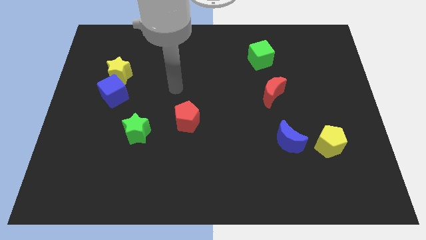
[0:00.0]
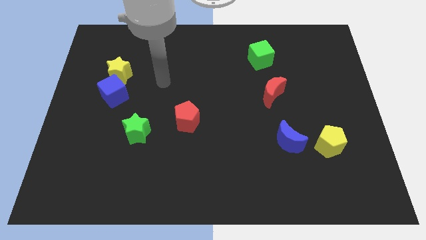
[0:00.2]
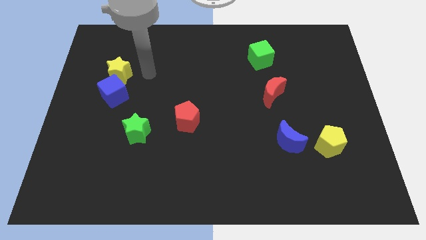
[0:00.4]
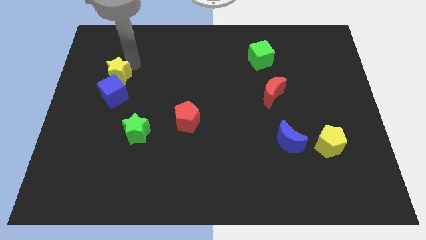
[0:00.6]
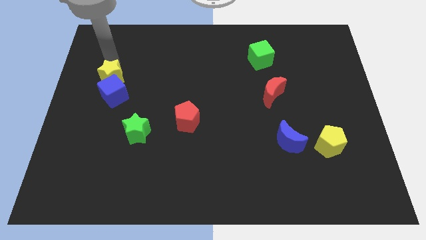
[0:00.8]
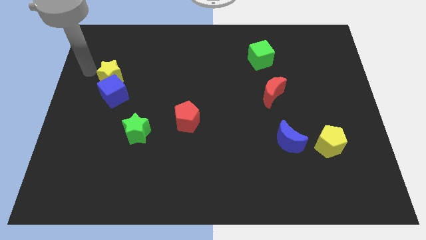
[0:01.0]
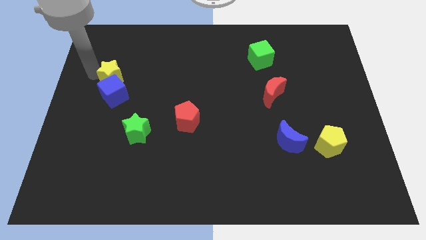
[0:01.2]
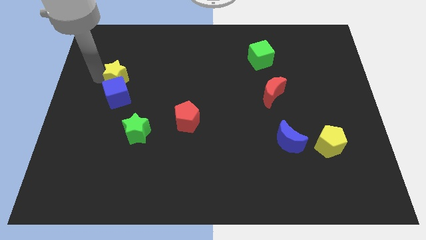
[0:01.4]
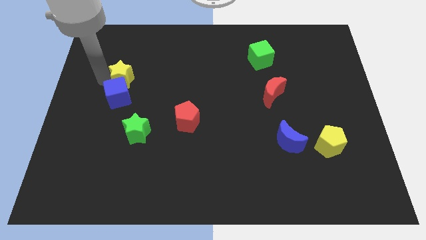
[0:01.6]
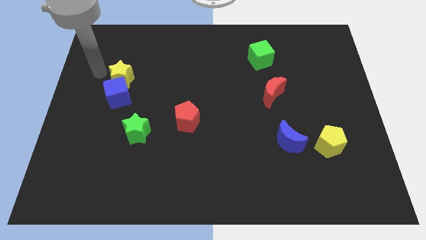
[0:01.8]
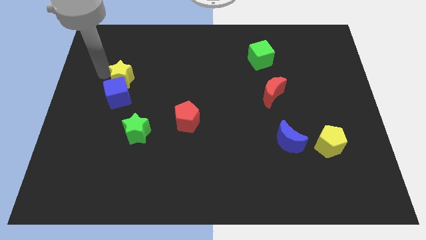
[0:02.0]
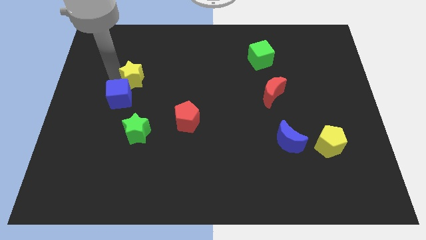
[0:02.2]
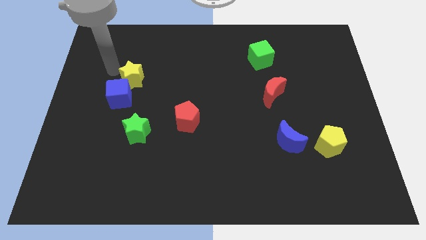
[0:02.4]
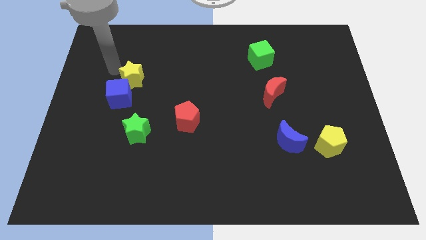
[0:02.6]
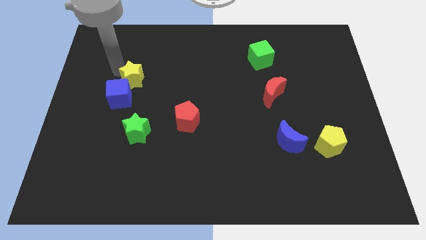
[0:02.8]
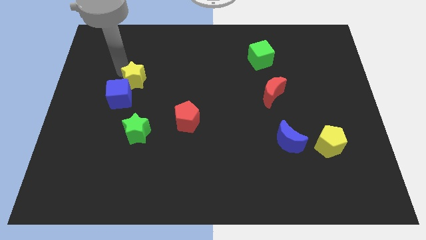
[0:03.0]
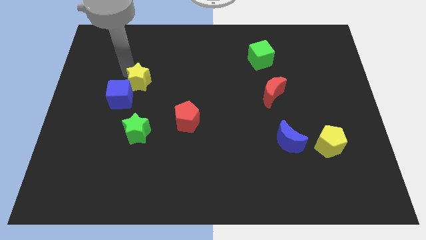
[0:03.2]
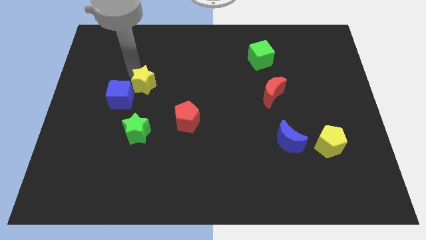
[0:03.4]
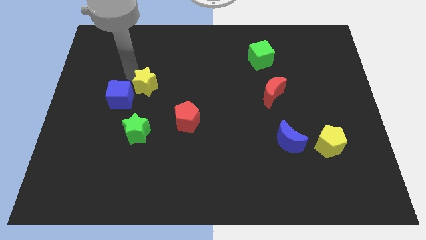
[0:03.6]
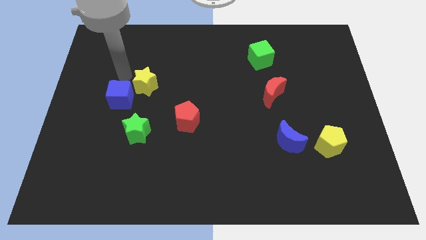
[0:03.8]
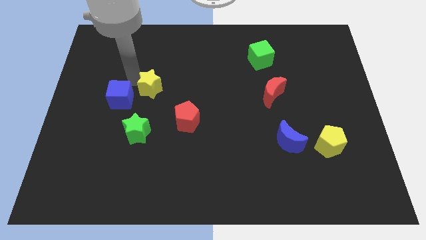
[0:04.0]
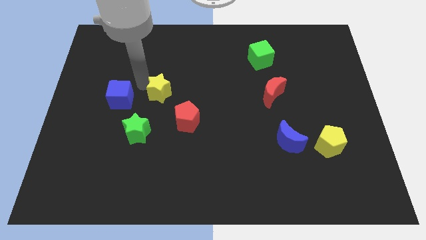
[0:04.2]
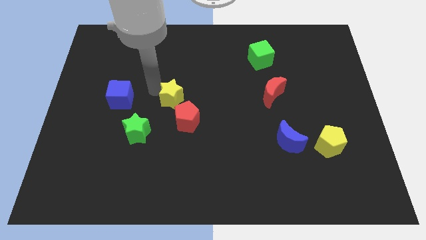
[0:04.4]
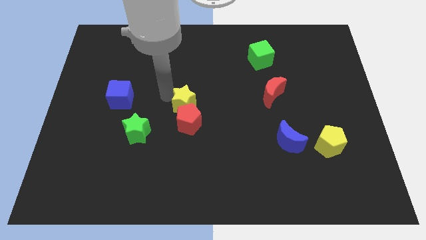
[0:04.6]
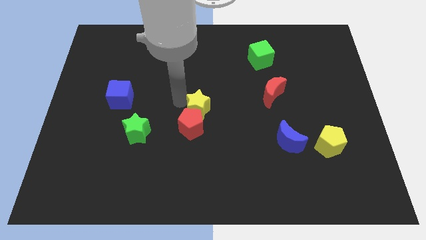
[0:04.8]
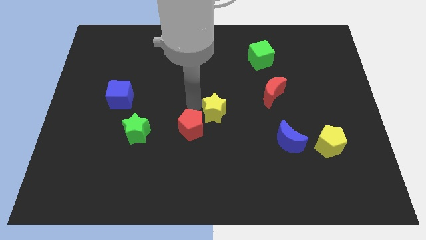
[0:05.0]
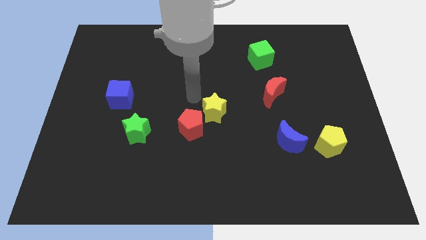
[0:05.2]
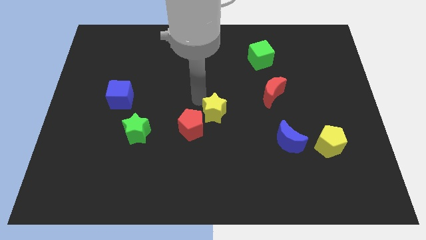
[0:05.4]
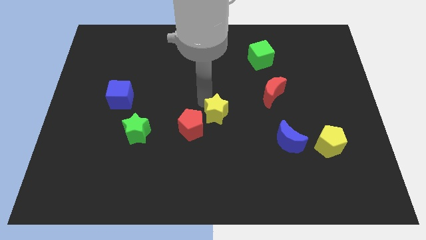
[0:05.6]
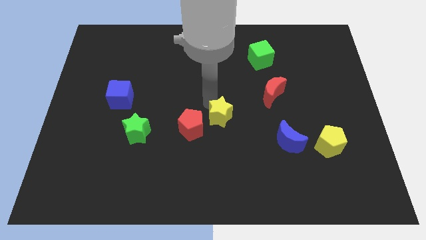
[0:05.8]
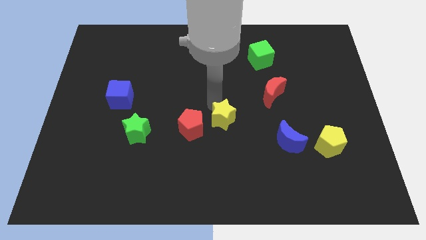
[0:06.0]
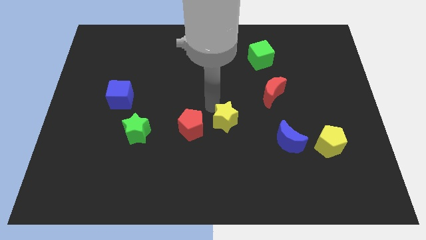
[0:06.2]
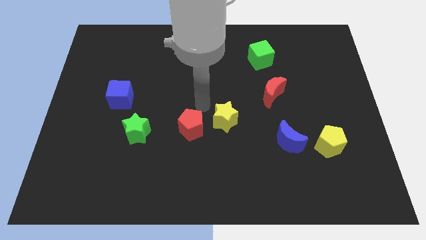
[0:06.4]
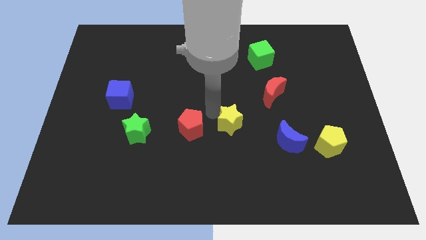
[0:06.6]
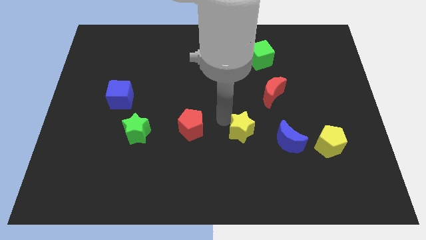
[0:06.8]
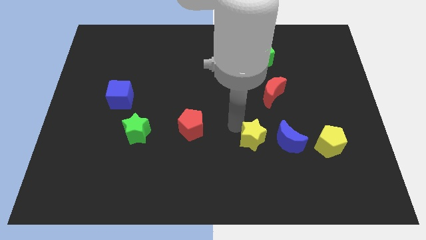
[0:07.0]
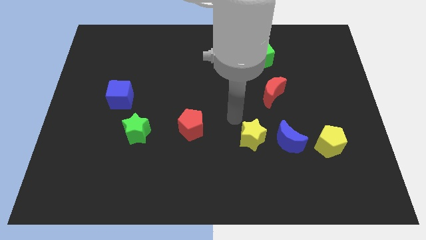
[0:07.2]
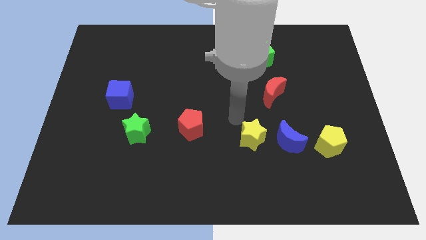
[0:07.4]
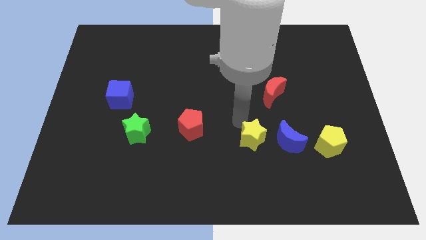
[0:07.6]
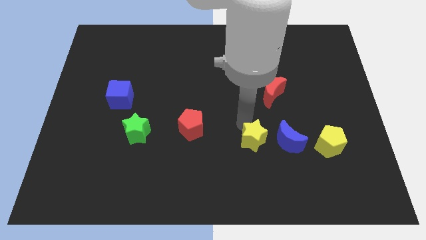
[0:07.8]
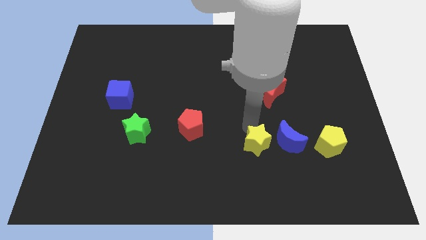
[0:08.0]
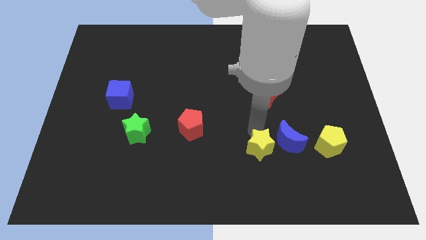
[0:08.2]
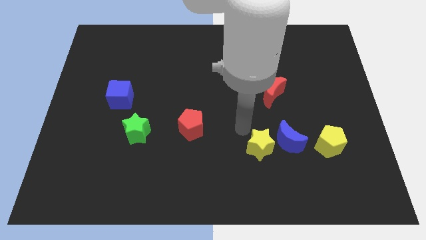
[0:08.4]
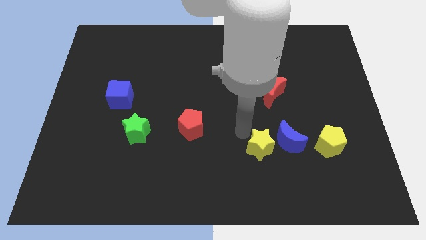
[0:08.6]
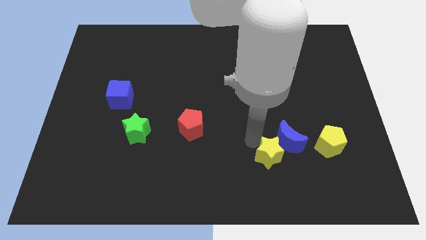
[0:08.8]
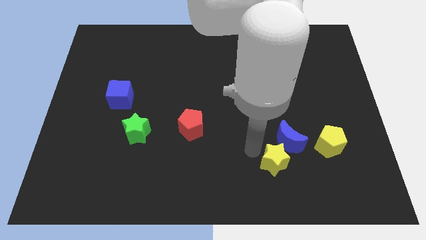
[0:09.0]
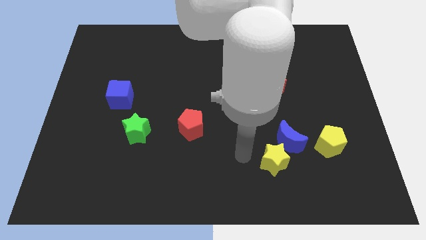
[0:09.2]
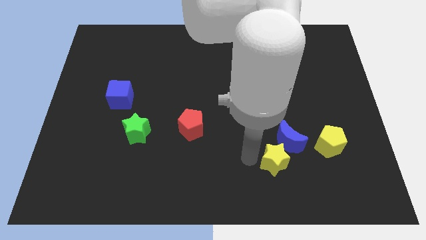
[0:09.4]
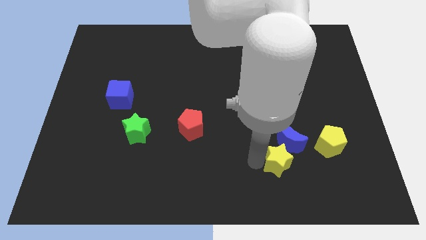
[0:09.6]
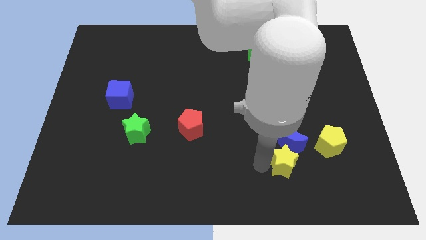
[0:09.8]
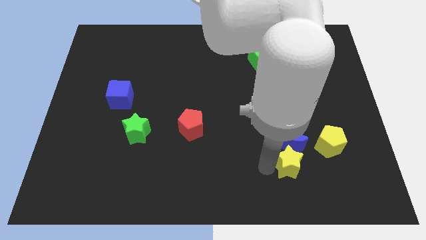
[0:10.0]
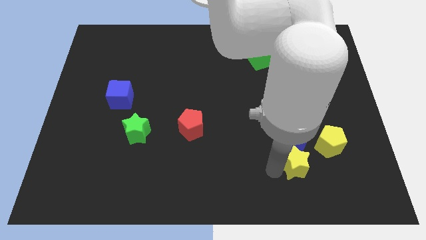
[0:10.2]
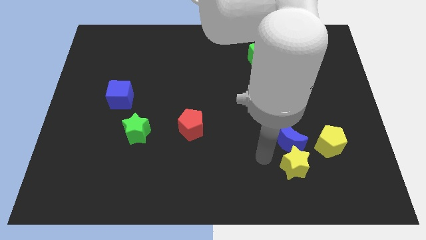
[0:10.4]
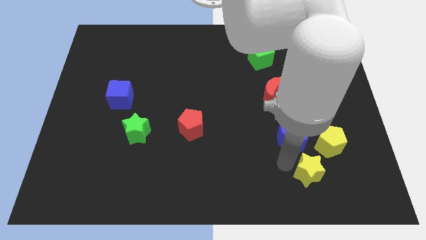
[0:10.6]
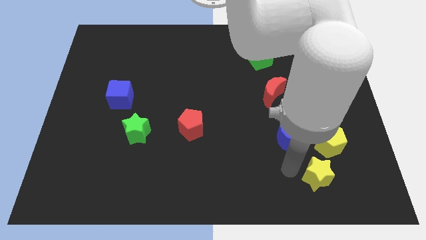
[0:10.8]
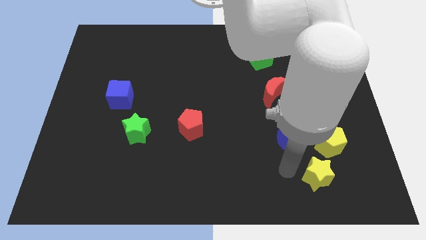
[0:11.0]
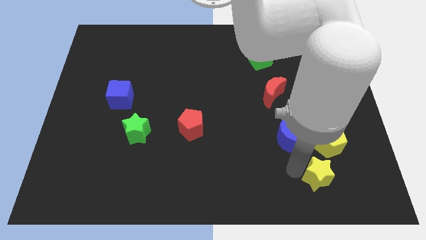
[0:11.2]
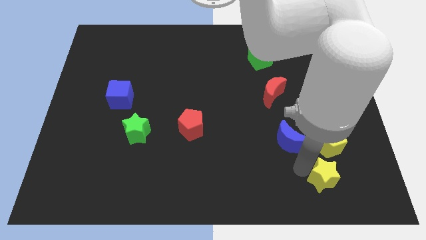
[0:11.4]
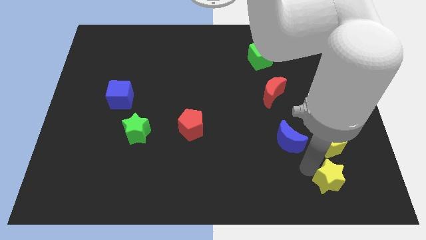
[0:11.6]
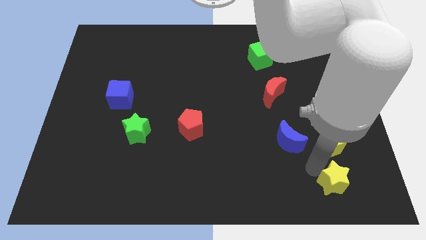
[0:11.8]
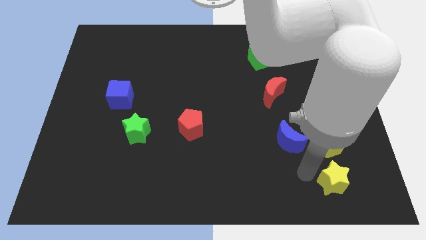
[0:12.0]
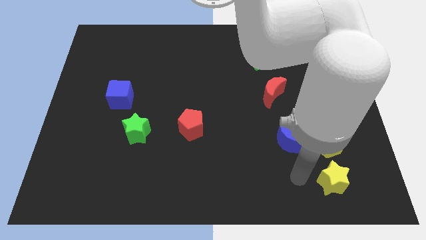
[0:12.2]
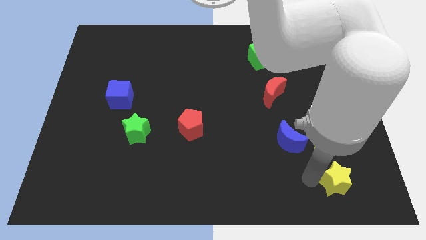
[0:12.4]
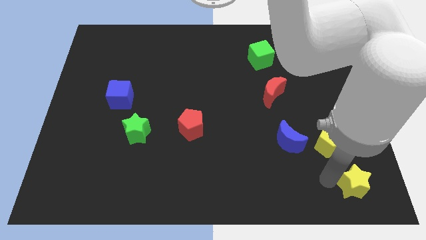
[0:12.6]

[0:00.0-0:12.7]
put the yellow star to the lower right corner

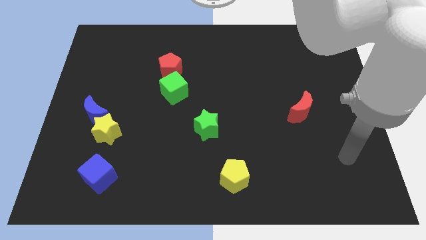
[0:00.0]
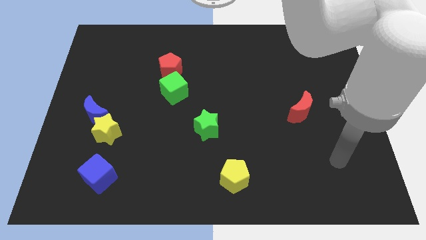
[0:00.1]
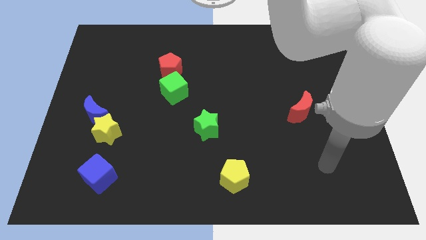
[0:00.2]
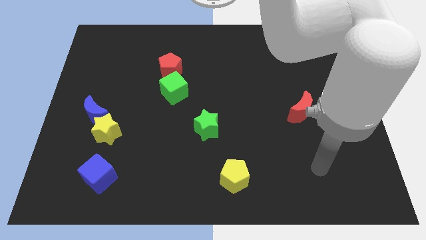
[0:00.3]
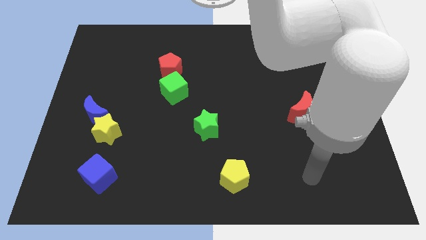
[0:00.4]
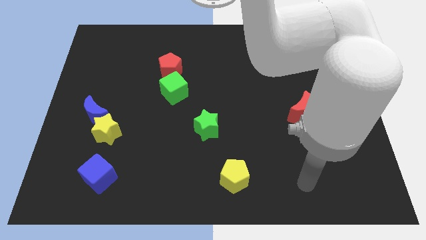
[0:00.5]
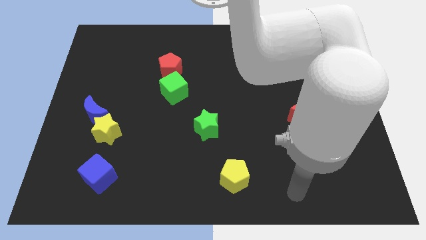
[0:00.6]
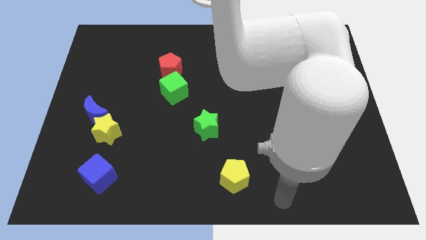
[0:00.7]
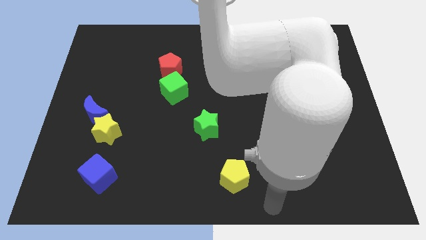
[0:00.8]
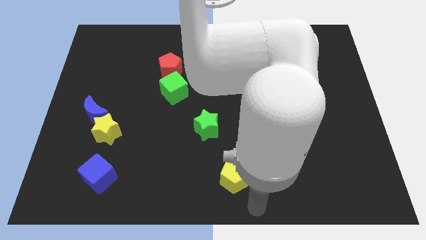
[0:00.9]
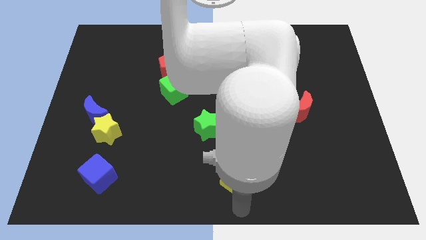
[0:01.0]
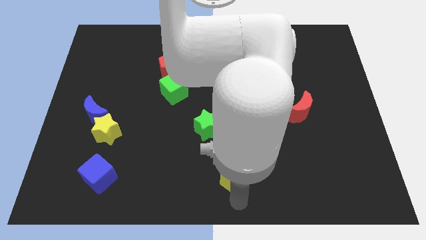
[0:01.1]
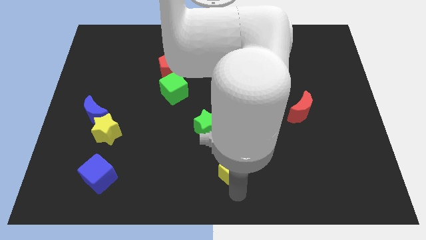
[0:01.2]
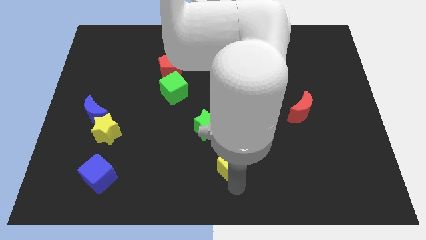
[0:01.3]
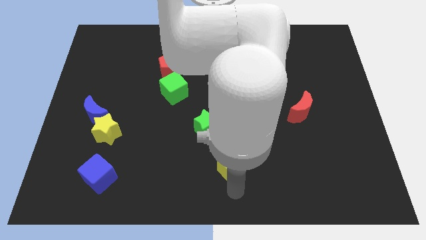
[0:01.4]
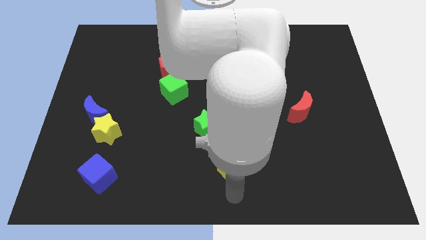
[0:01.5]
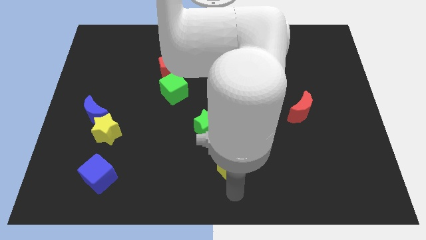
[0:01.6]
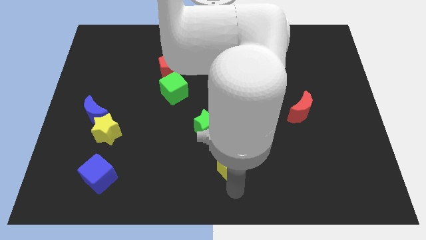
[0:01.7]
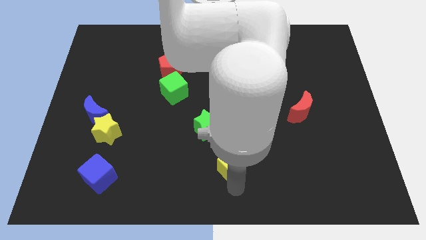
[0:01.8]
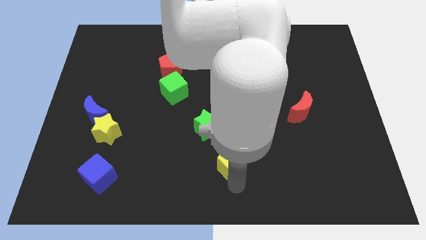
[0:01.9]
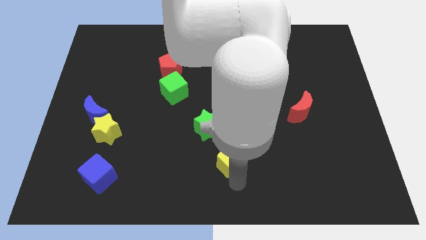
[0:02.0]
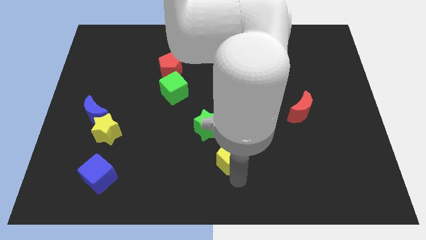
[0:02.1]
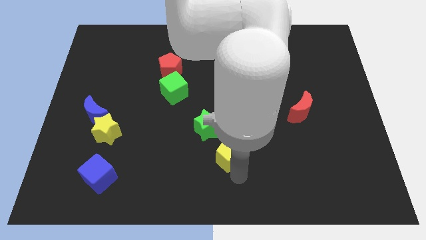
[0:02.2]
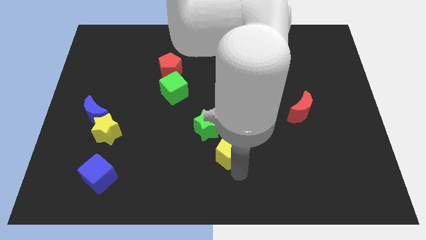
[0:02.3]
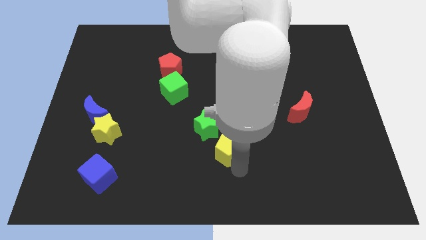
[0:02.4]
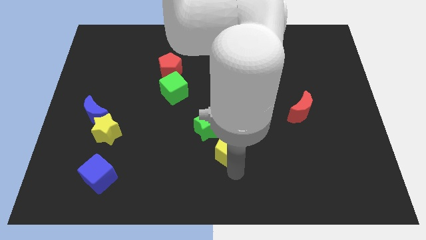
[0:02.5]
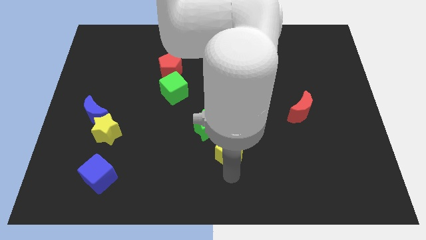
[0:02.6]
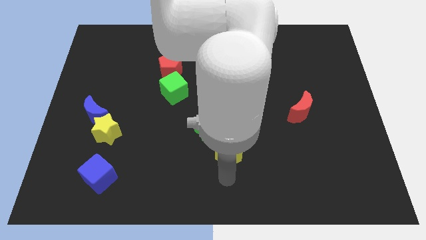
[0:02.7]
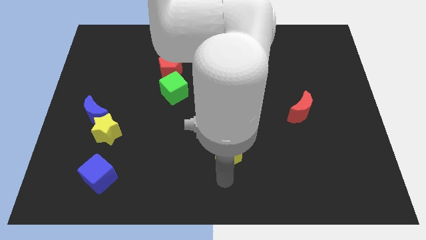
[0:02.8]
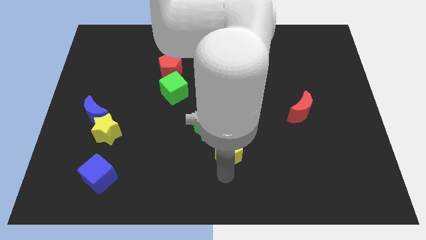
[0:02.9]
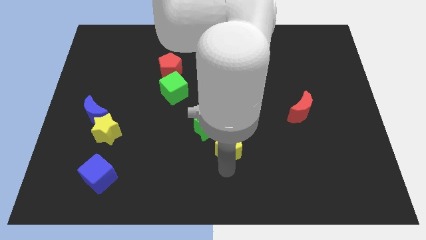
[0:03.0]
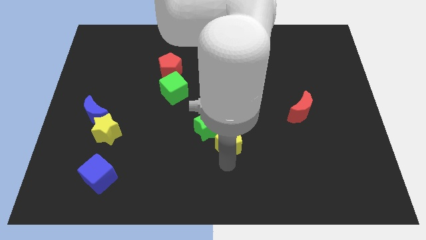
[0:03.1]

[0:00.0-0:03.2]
slide the yellow pentagon to the middle
